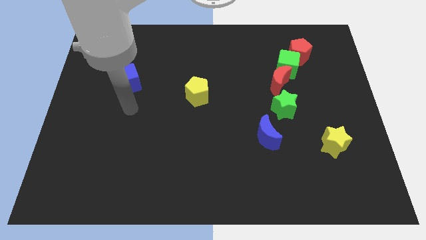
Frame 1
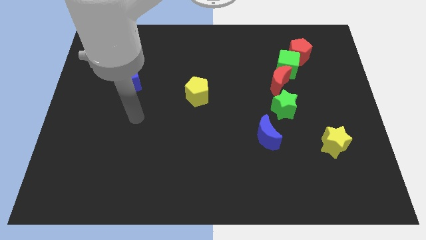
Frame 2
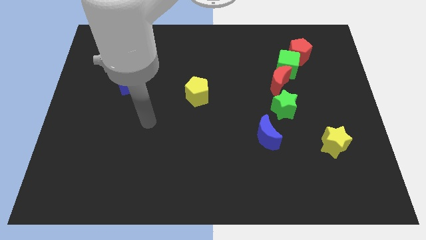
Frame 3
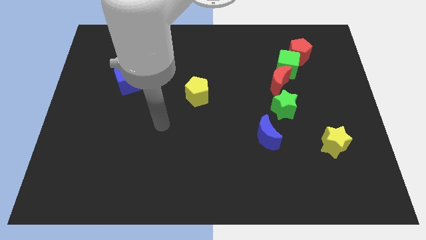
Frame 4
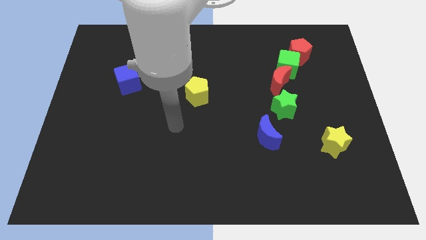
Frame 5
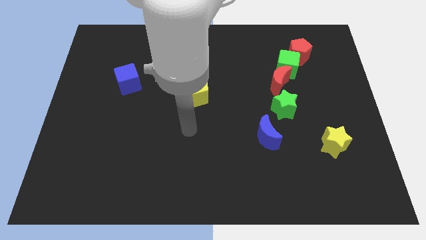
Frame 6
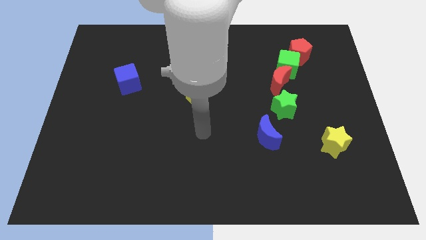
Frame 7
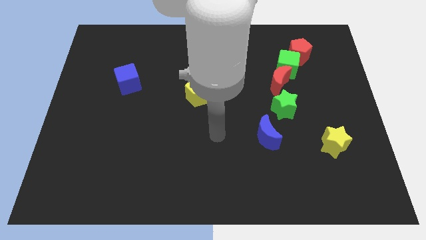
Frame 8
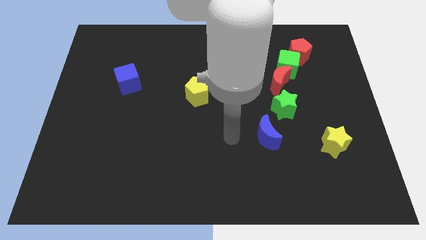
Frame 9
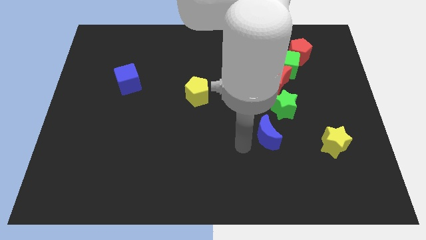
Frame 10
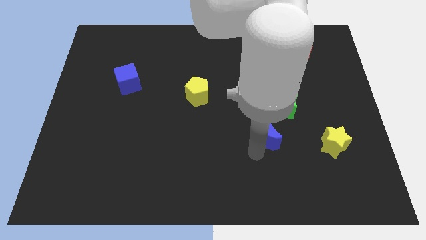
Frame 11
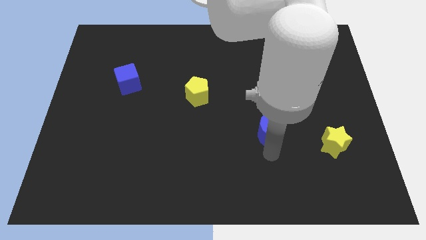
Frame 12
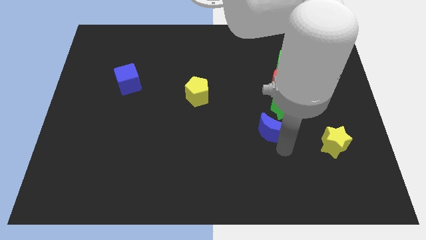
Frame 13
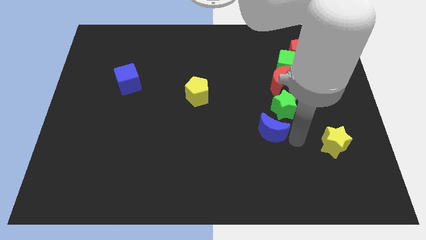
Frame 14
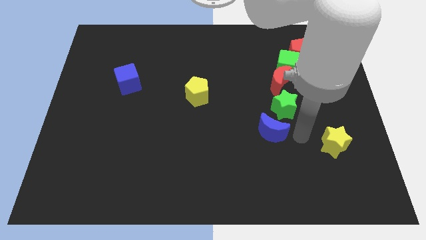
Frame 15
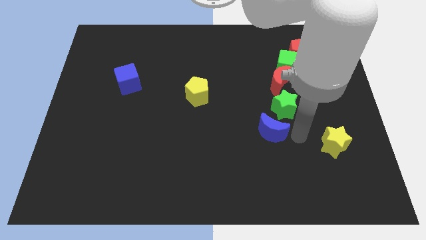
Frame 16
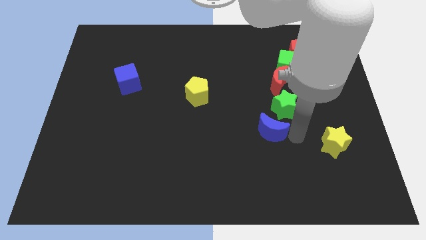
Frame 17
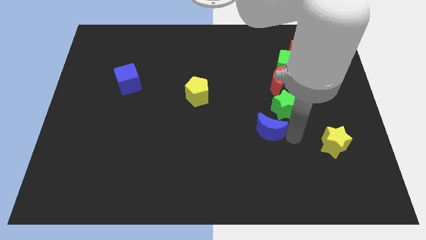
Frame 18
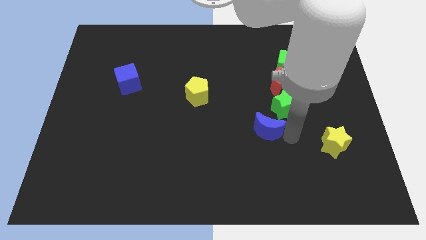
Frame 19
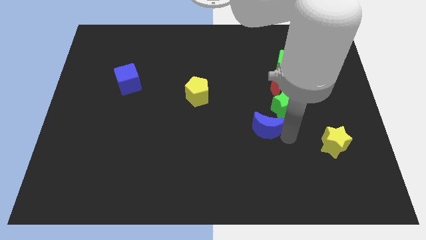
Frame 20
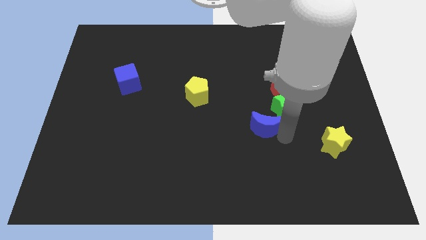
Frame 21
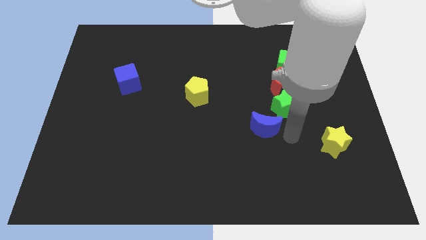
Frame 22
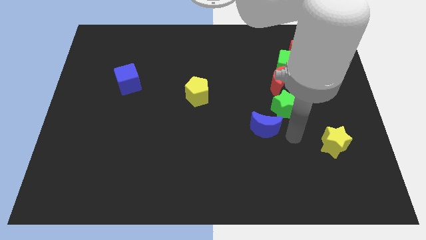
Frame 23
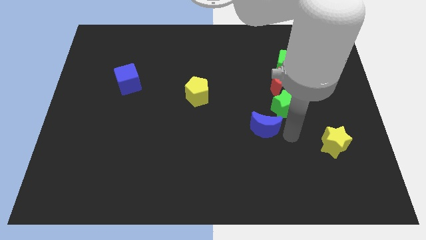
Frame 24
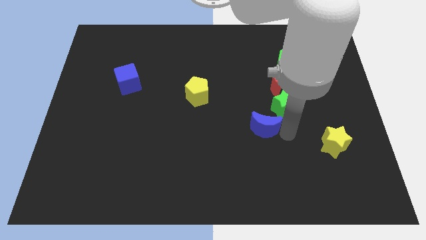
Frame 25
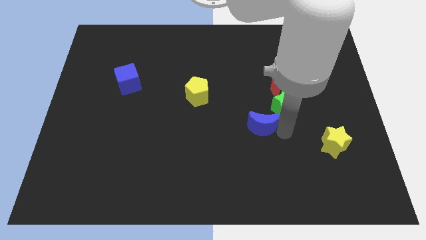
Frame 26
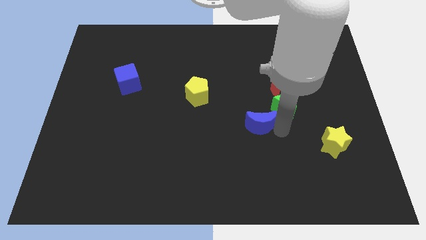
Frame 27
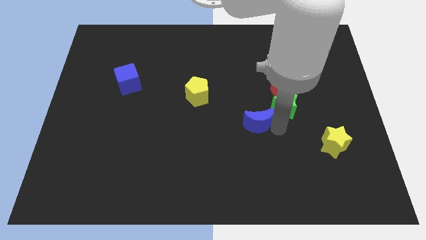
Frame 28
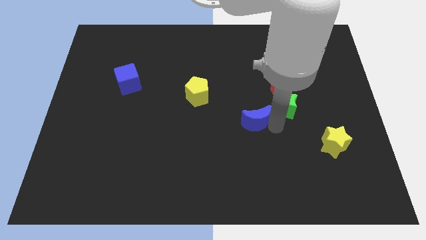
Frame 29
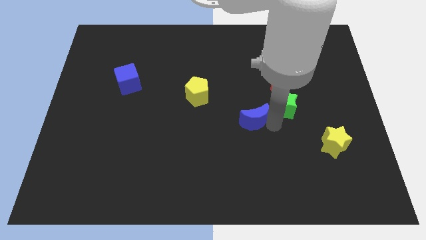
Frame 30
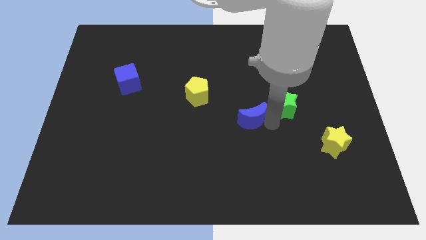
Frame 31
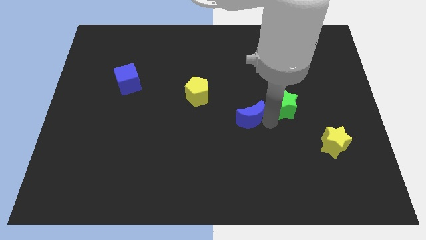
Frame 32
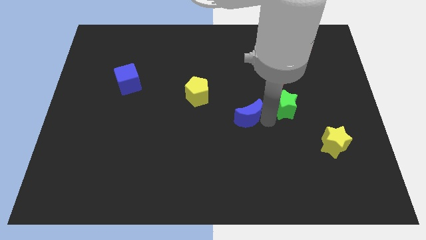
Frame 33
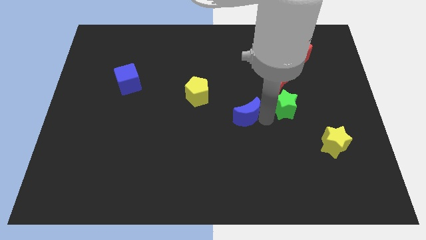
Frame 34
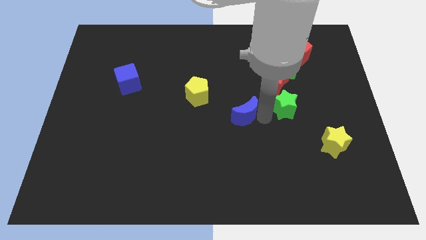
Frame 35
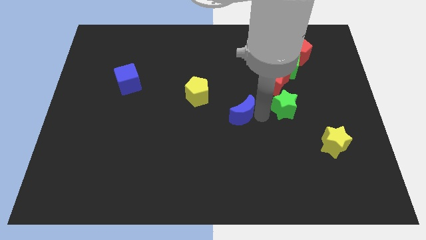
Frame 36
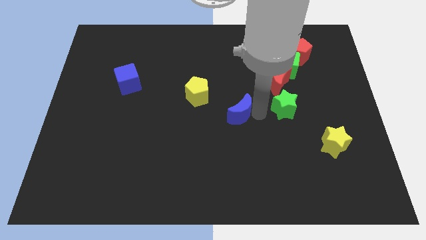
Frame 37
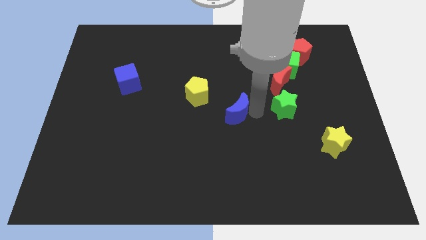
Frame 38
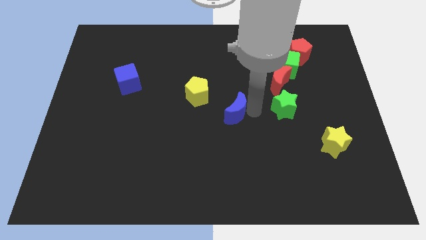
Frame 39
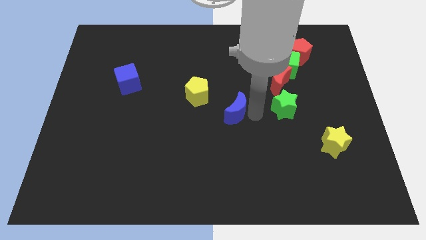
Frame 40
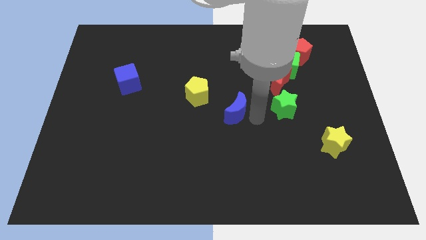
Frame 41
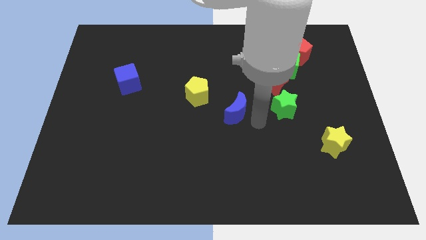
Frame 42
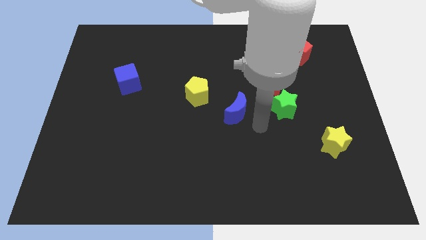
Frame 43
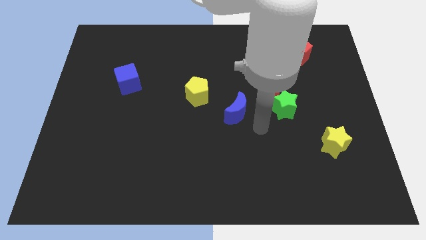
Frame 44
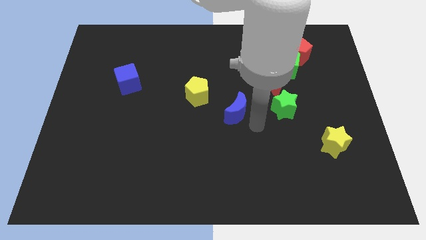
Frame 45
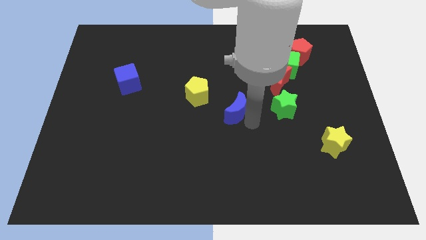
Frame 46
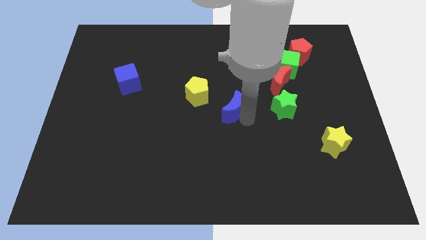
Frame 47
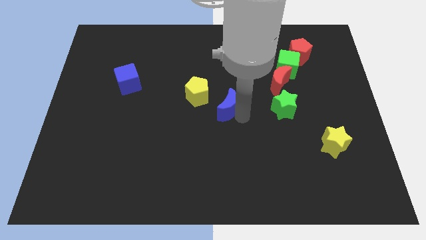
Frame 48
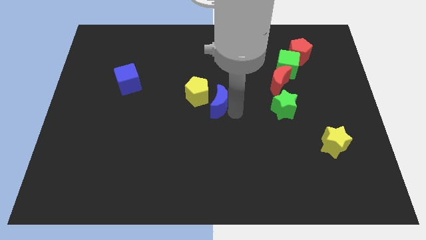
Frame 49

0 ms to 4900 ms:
slide the blue moon next to the yellow pentagon

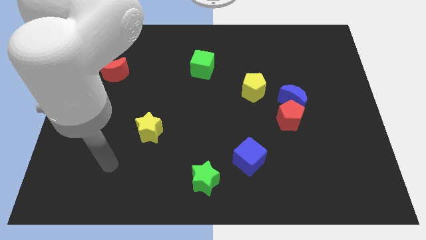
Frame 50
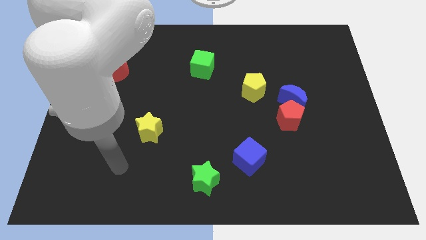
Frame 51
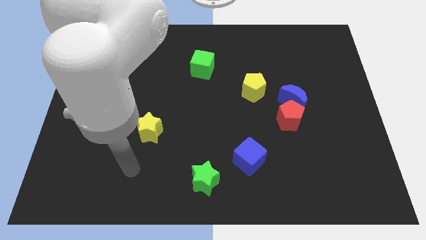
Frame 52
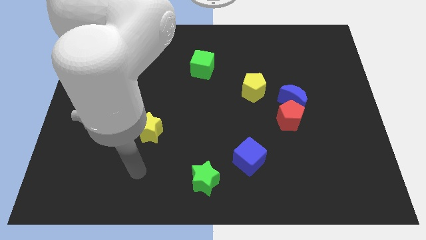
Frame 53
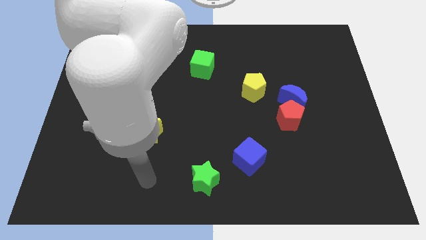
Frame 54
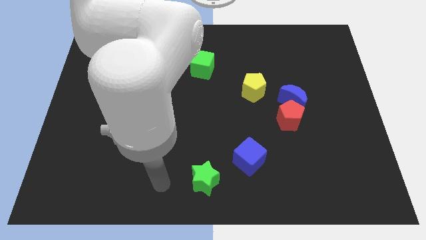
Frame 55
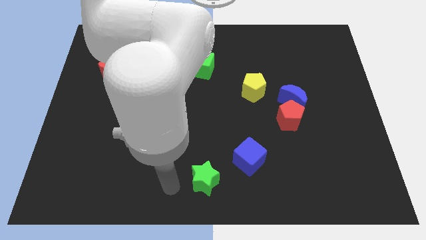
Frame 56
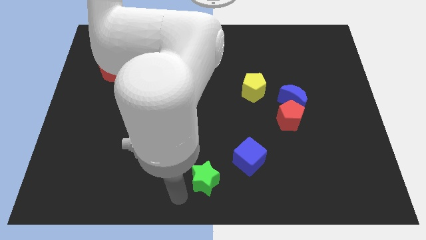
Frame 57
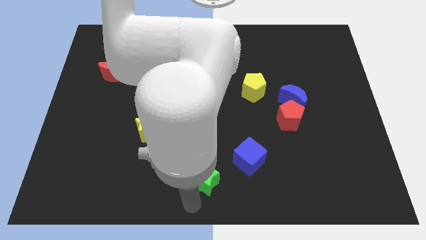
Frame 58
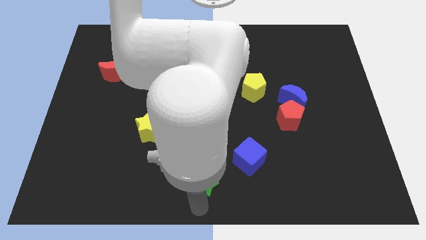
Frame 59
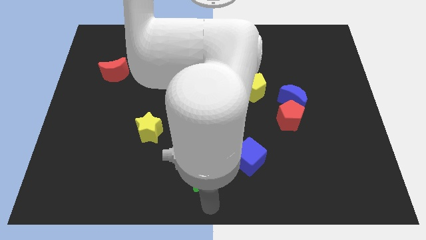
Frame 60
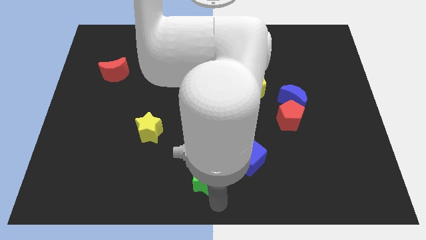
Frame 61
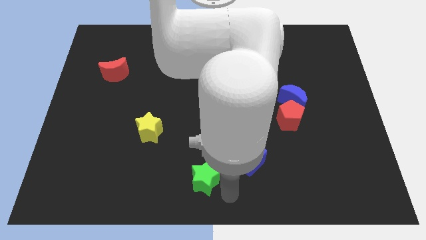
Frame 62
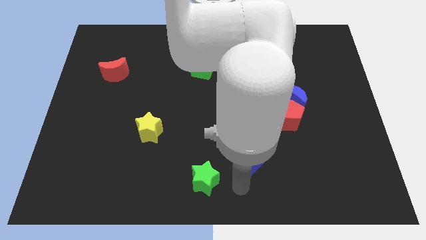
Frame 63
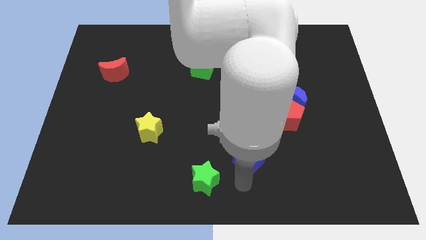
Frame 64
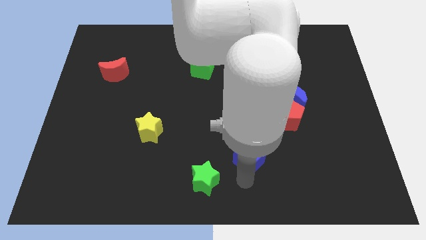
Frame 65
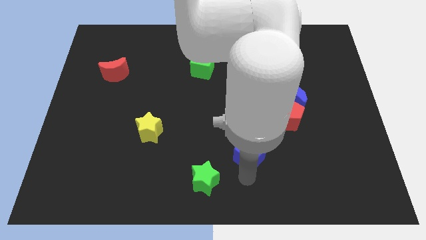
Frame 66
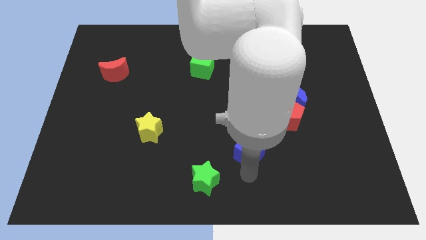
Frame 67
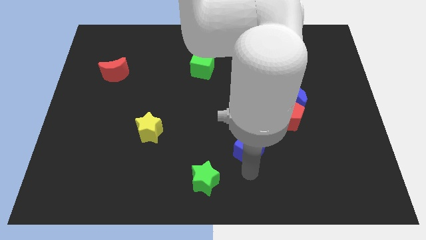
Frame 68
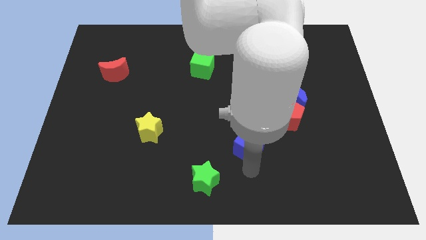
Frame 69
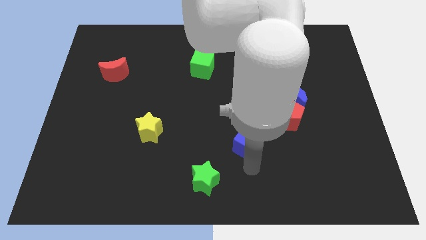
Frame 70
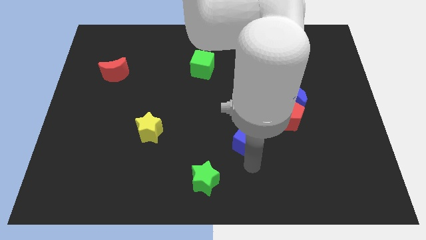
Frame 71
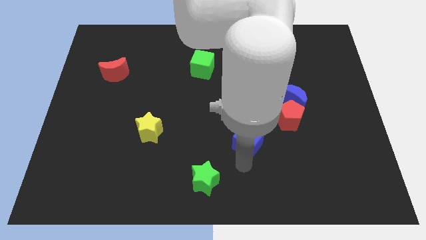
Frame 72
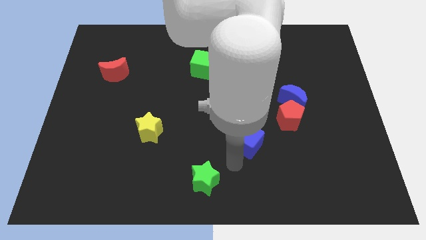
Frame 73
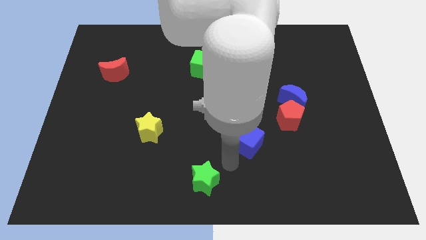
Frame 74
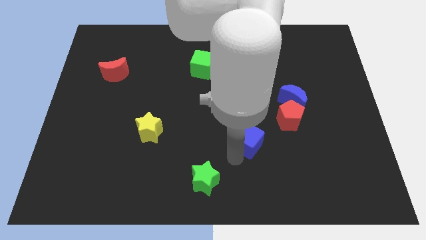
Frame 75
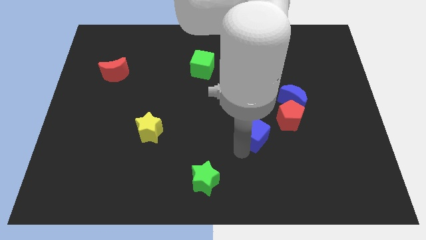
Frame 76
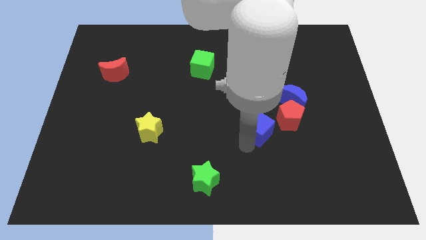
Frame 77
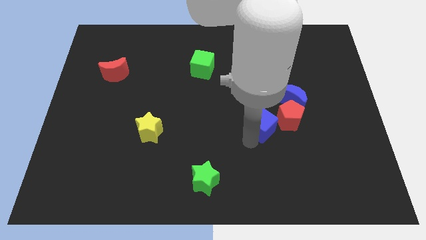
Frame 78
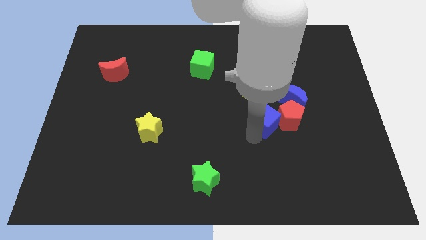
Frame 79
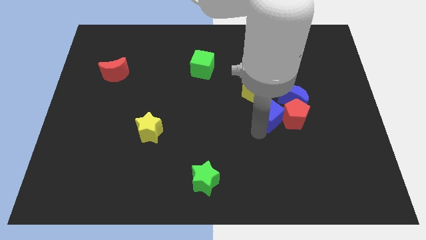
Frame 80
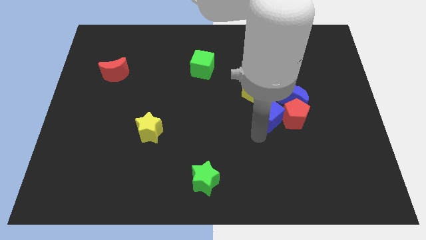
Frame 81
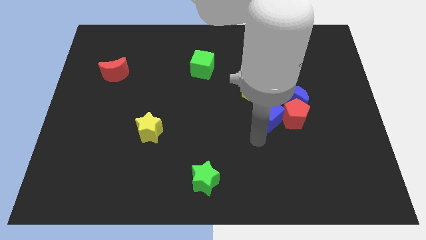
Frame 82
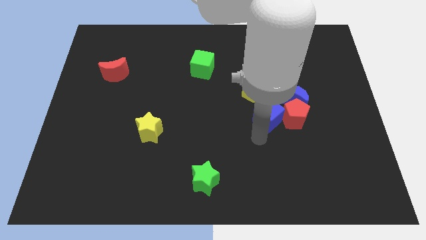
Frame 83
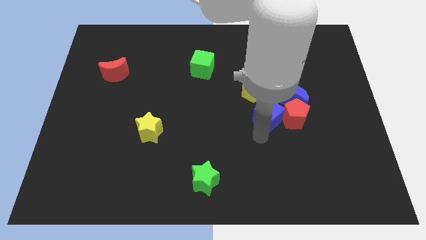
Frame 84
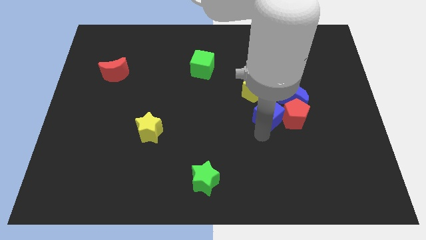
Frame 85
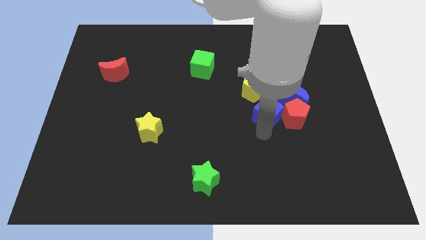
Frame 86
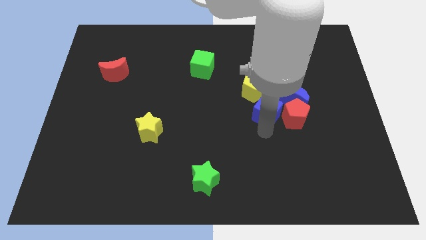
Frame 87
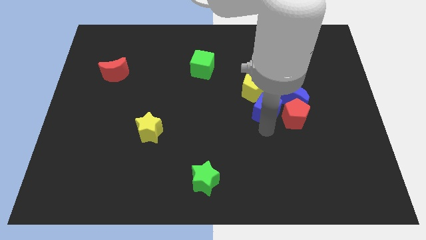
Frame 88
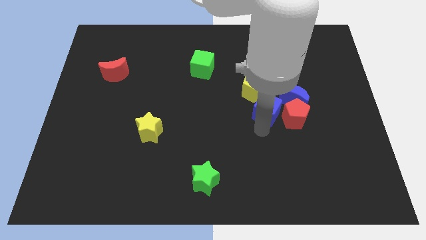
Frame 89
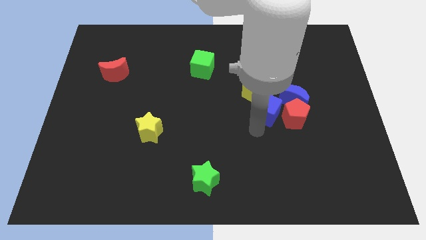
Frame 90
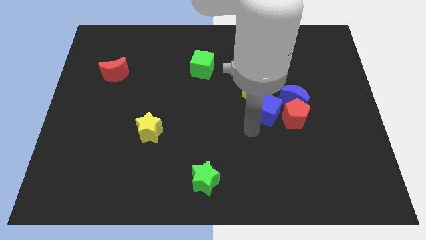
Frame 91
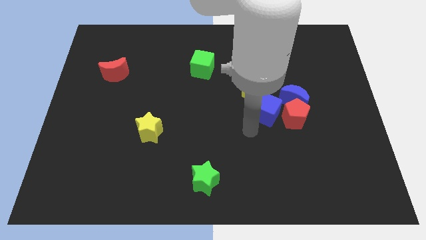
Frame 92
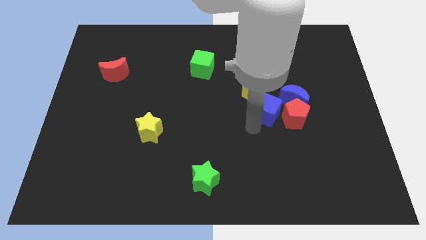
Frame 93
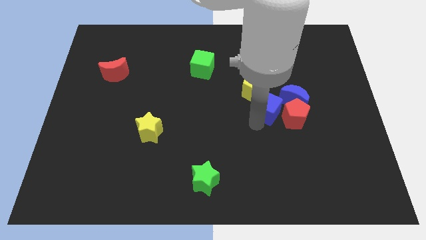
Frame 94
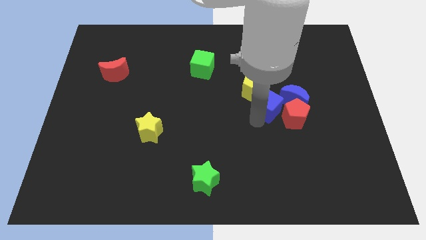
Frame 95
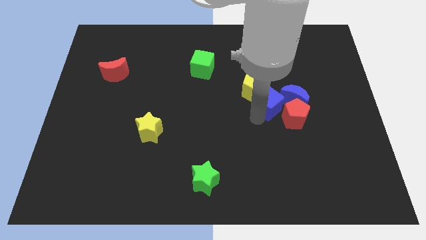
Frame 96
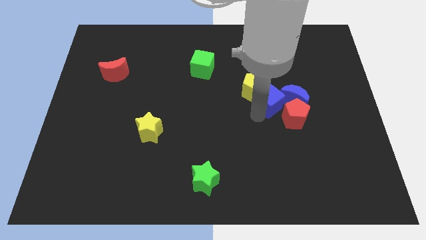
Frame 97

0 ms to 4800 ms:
put the blue cube to the blue moon
